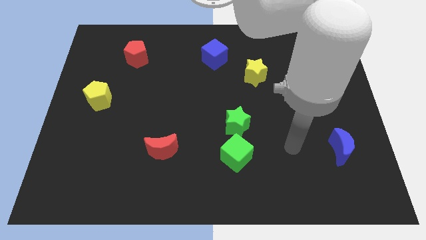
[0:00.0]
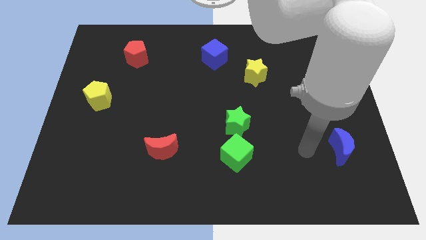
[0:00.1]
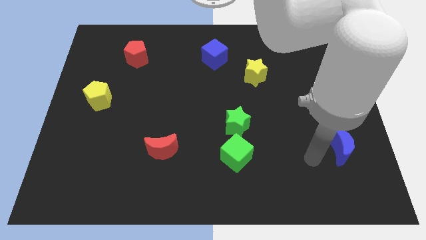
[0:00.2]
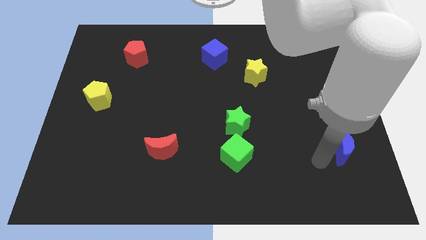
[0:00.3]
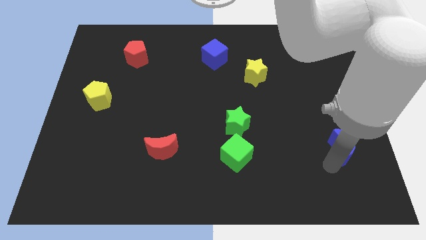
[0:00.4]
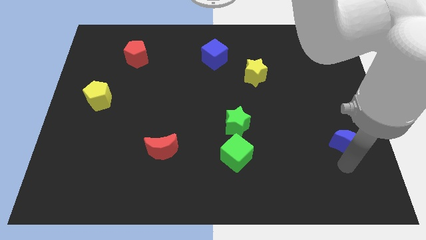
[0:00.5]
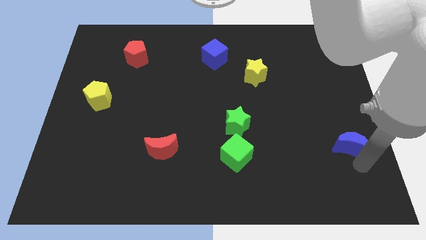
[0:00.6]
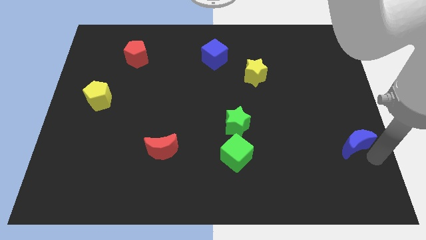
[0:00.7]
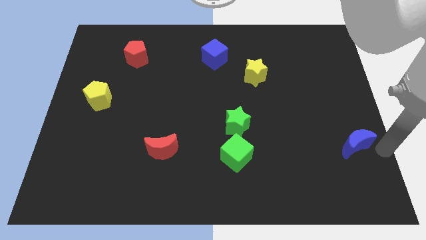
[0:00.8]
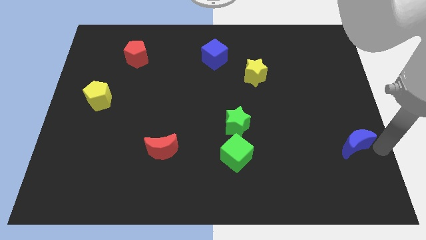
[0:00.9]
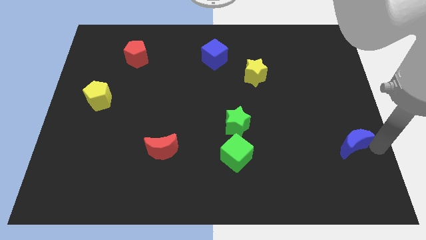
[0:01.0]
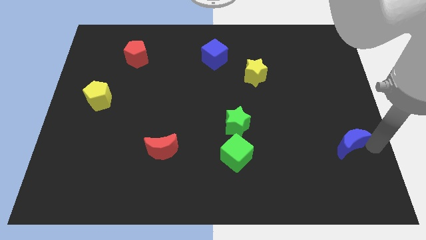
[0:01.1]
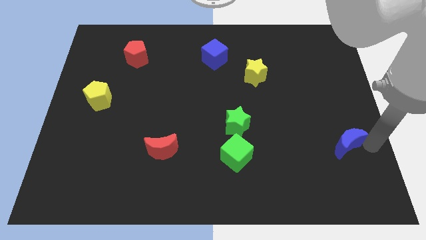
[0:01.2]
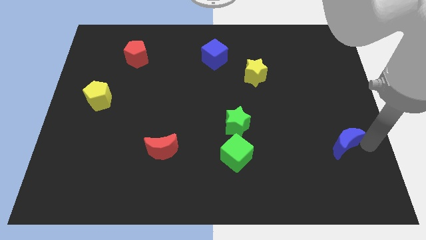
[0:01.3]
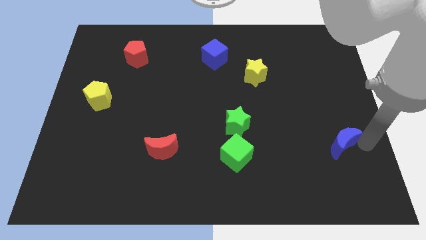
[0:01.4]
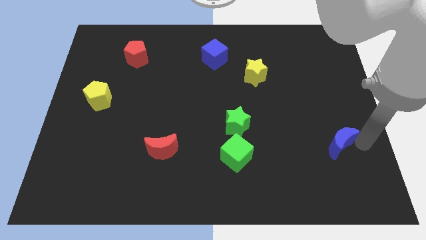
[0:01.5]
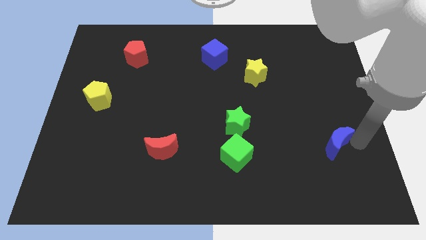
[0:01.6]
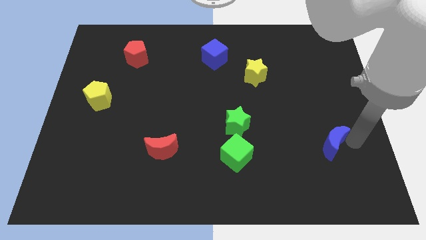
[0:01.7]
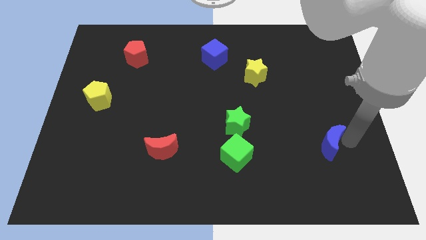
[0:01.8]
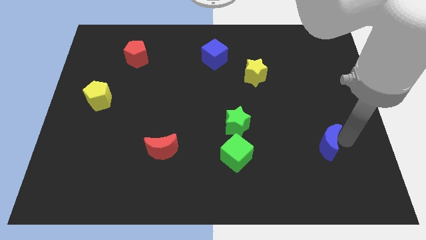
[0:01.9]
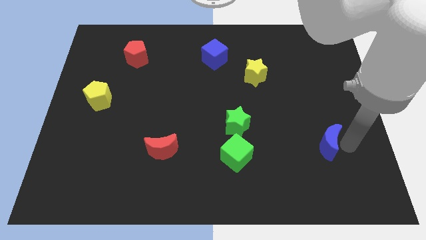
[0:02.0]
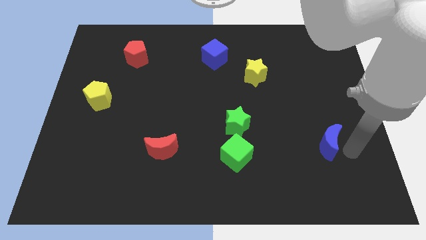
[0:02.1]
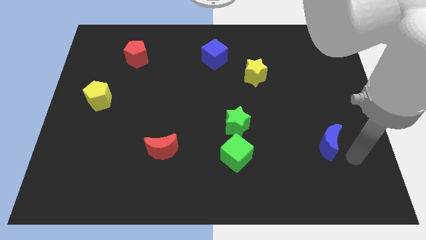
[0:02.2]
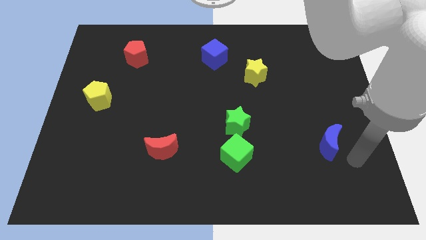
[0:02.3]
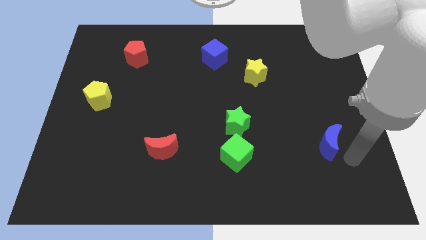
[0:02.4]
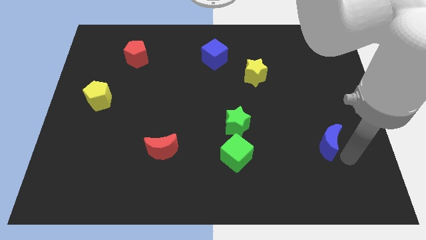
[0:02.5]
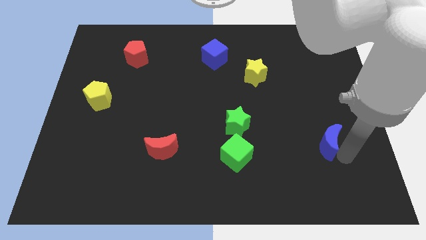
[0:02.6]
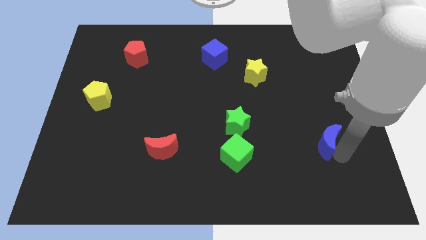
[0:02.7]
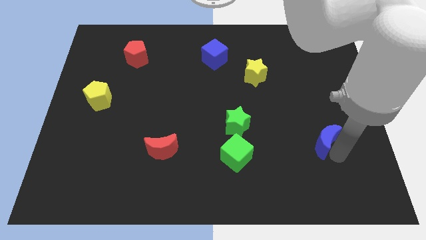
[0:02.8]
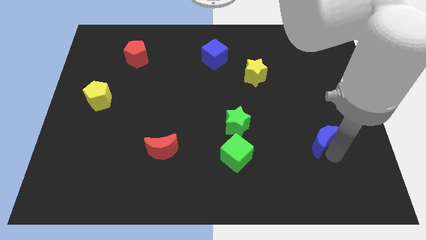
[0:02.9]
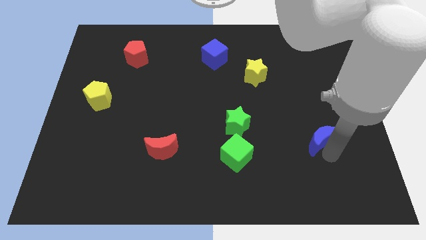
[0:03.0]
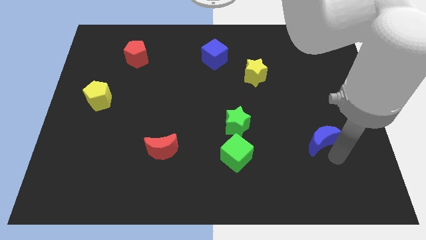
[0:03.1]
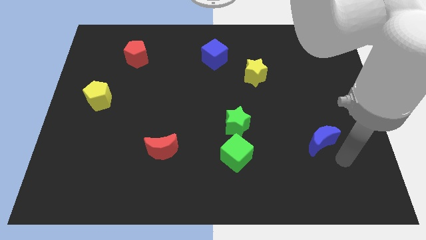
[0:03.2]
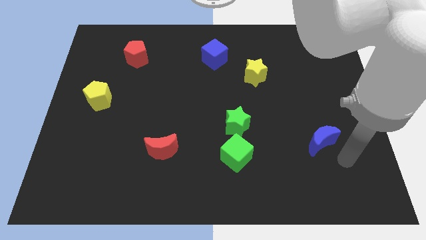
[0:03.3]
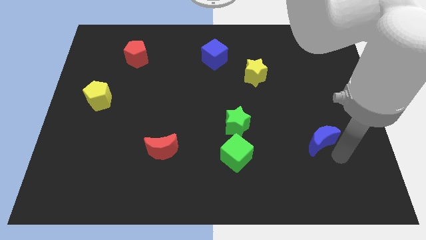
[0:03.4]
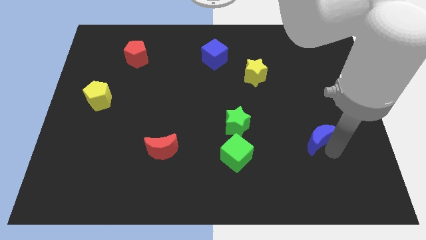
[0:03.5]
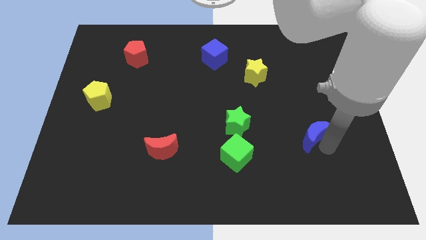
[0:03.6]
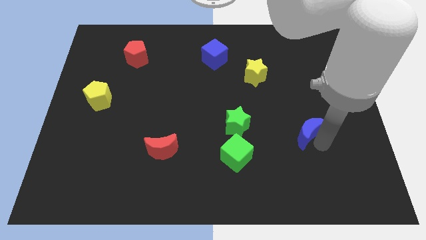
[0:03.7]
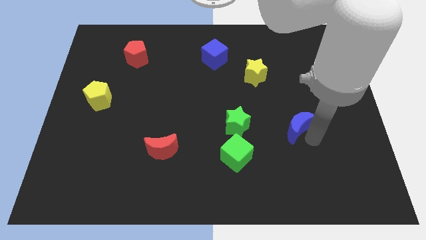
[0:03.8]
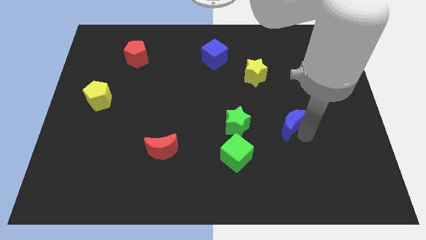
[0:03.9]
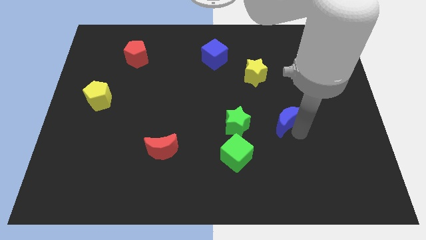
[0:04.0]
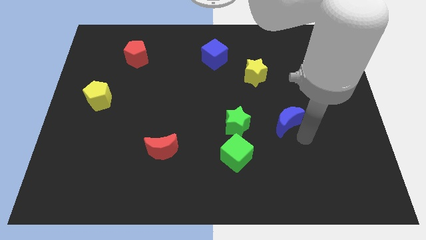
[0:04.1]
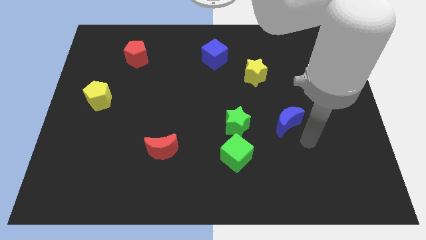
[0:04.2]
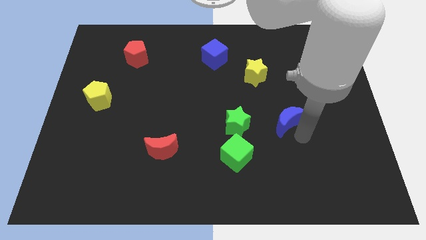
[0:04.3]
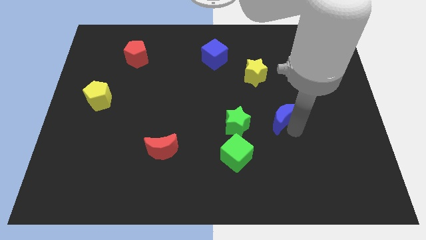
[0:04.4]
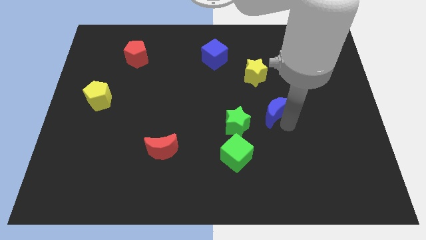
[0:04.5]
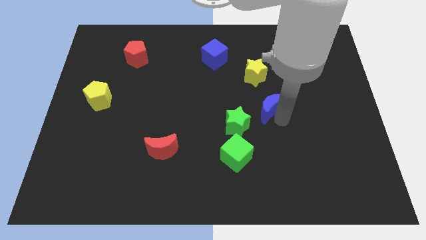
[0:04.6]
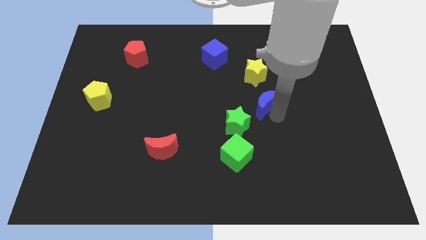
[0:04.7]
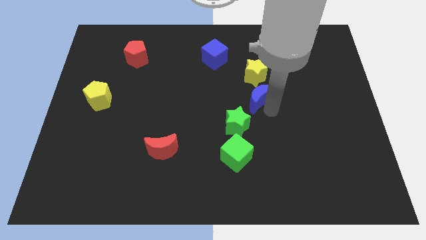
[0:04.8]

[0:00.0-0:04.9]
move the blue moon diagonally upwards and to the left

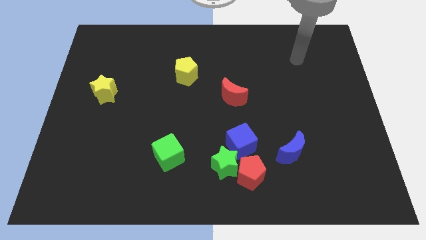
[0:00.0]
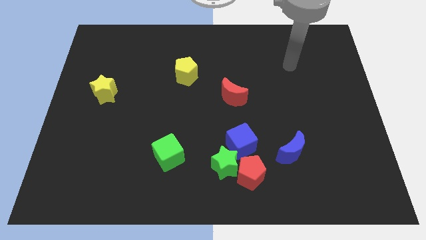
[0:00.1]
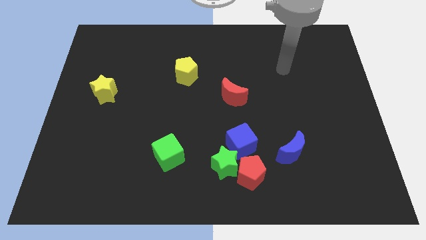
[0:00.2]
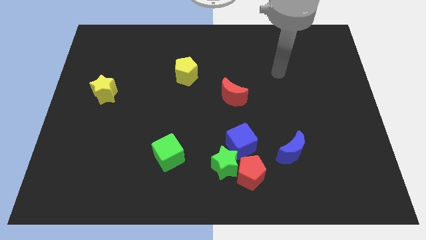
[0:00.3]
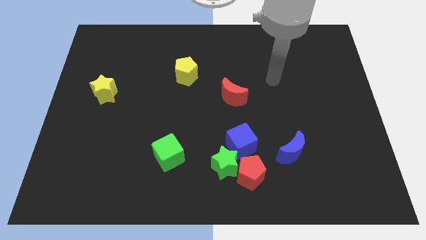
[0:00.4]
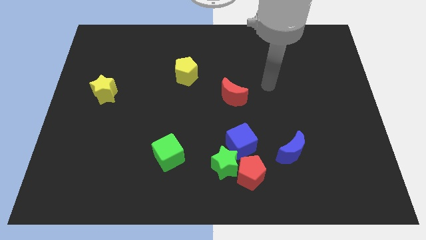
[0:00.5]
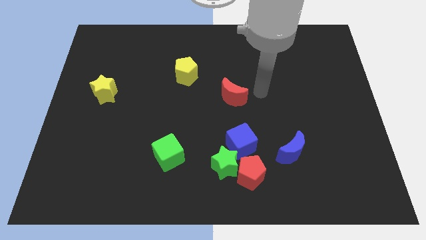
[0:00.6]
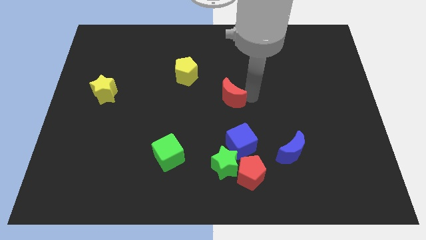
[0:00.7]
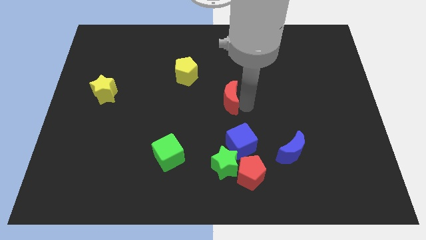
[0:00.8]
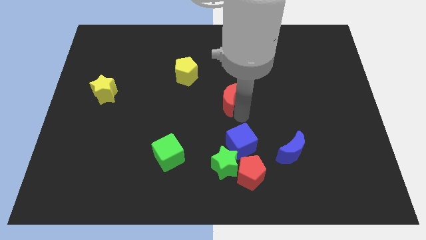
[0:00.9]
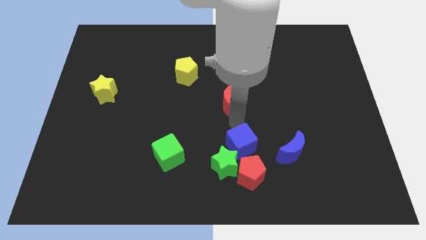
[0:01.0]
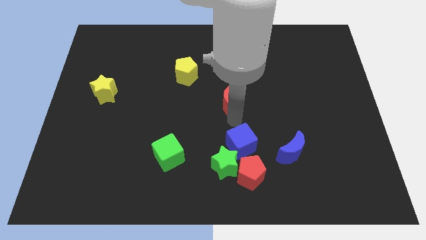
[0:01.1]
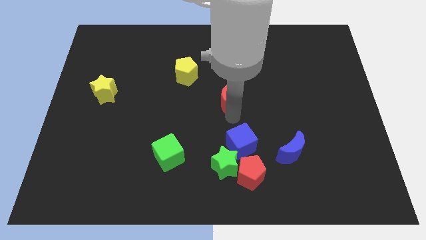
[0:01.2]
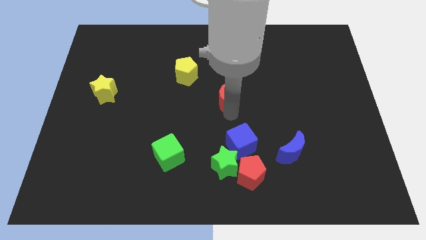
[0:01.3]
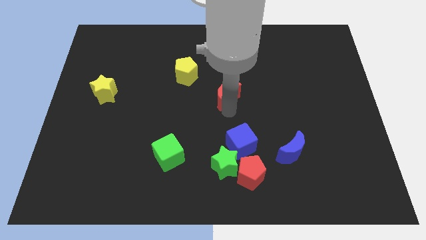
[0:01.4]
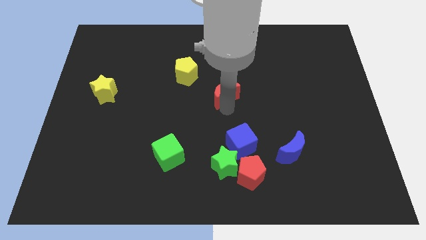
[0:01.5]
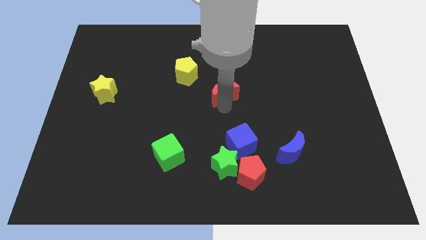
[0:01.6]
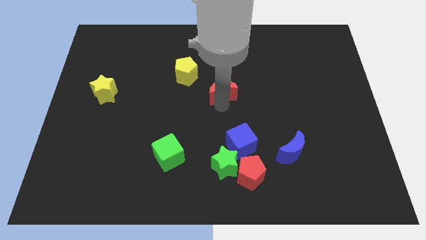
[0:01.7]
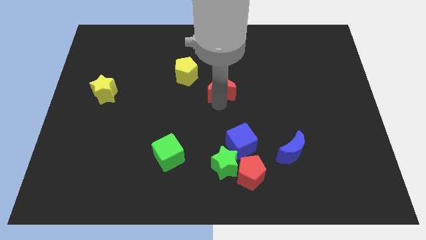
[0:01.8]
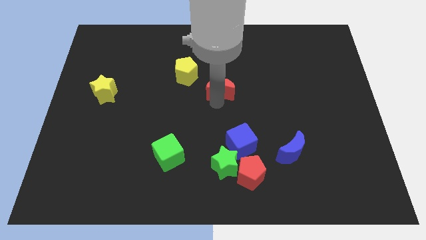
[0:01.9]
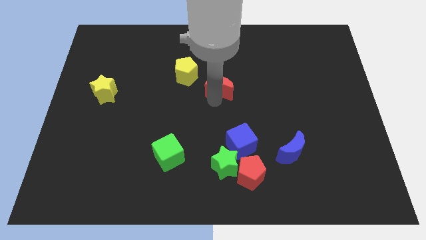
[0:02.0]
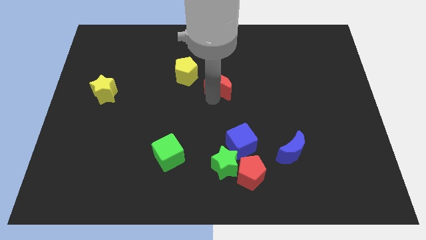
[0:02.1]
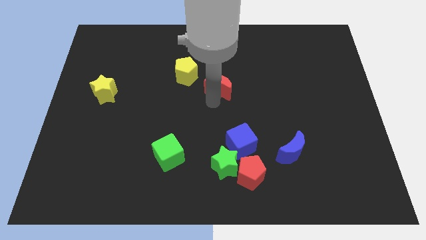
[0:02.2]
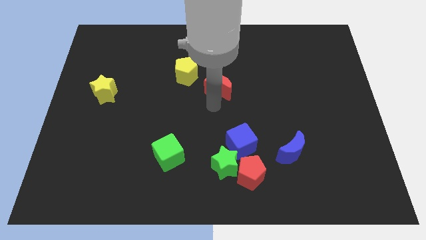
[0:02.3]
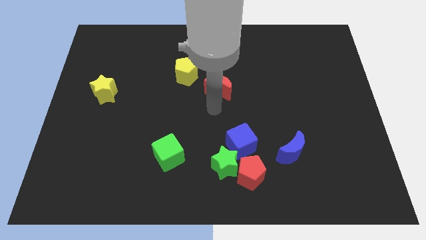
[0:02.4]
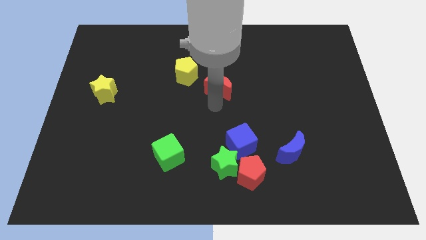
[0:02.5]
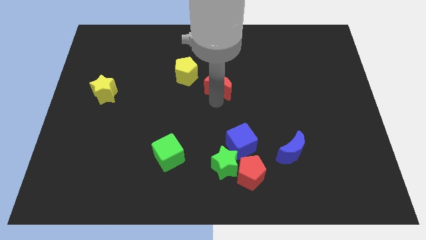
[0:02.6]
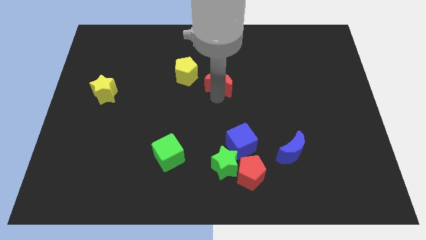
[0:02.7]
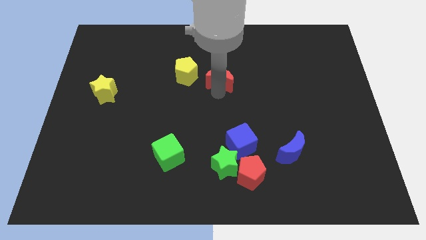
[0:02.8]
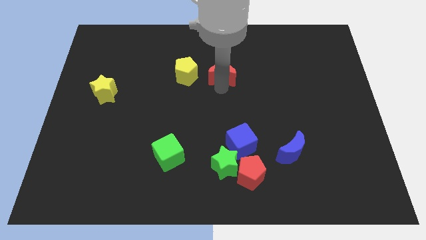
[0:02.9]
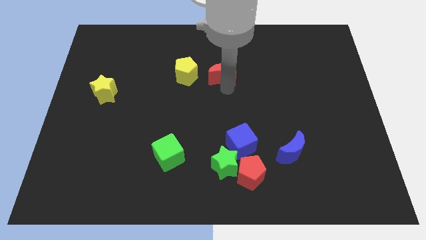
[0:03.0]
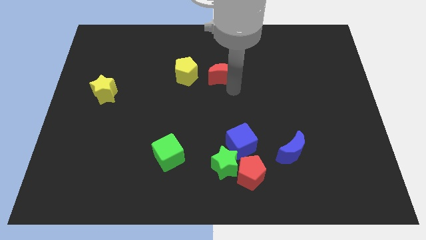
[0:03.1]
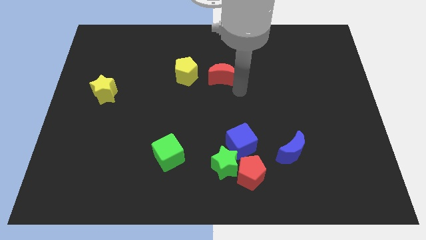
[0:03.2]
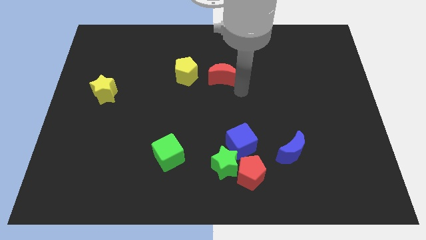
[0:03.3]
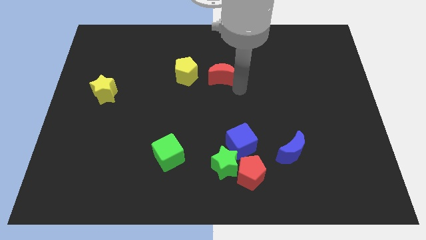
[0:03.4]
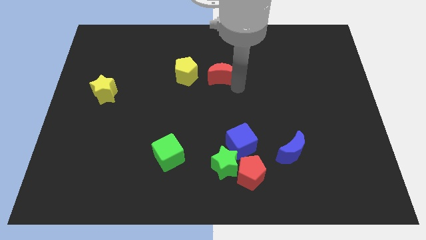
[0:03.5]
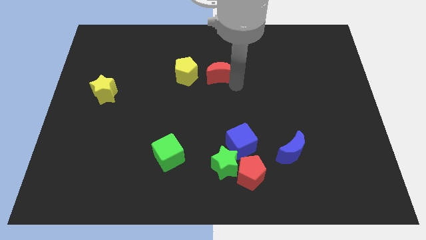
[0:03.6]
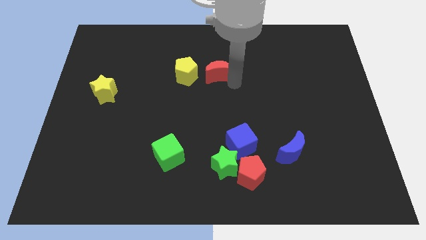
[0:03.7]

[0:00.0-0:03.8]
slightly move the red moon up and then left
